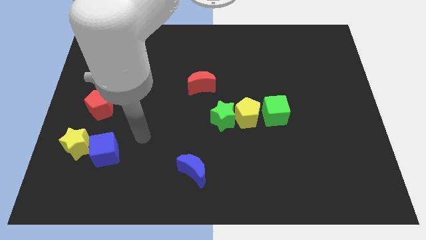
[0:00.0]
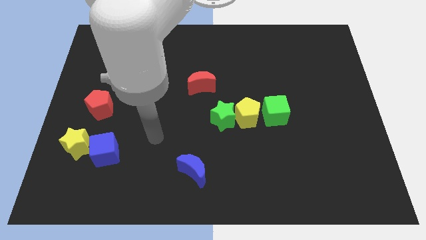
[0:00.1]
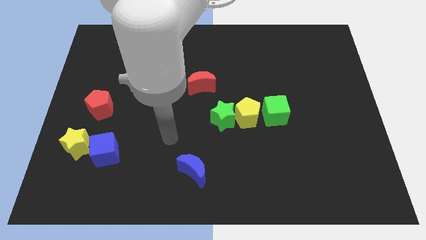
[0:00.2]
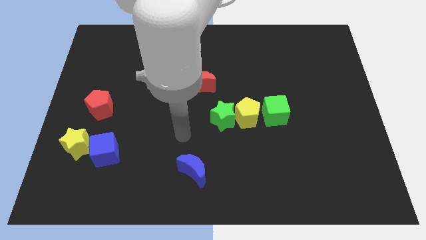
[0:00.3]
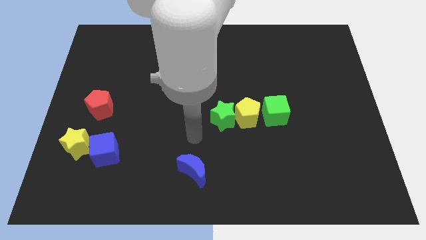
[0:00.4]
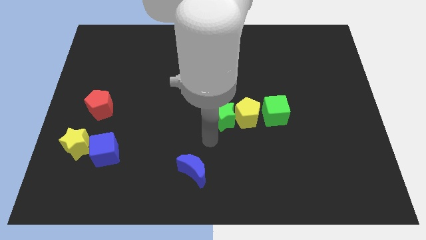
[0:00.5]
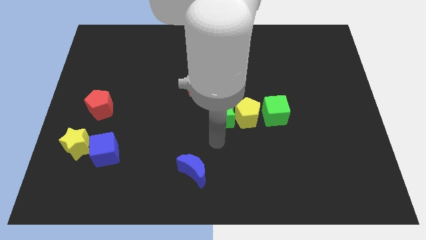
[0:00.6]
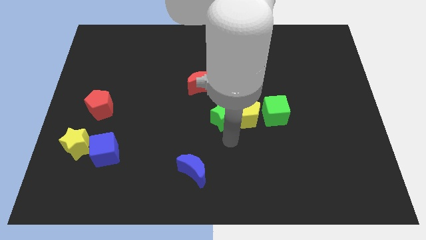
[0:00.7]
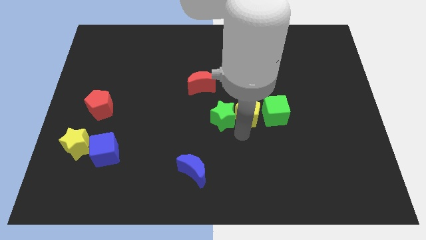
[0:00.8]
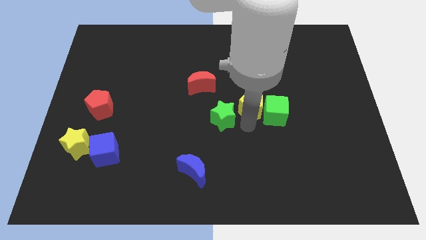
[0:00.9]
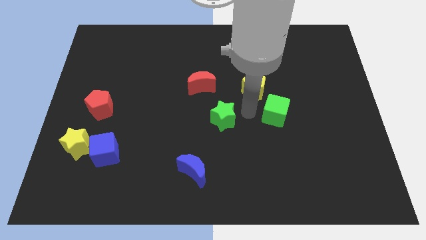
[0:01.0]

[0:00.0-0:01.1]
pull the green star apart from the yellow pentagon

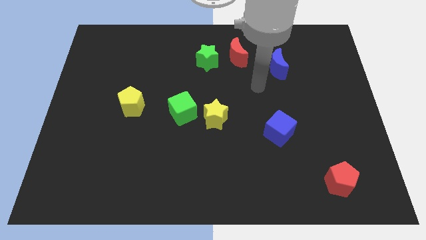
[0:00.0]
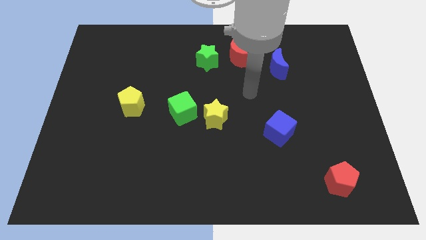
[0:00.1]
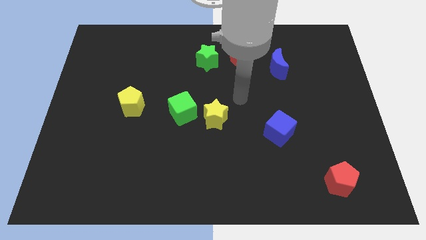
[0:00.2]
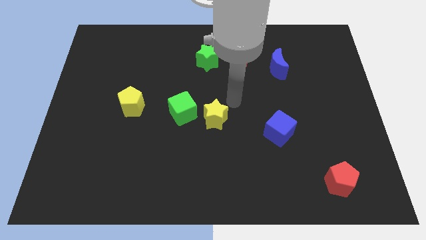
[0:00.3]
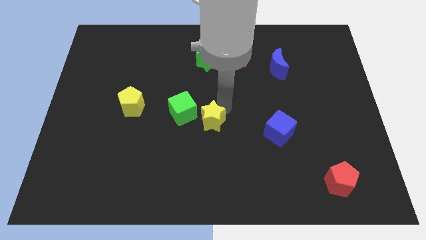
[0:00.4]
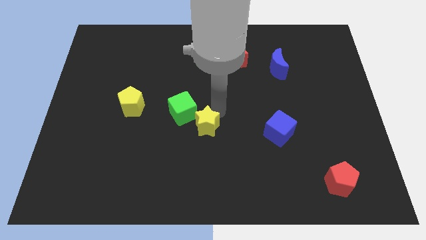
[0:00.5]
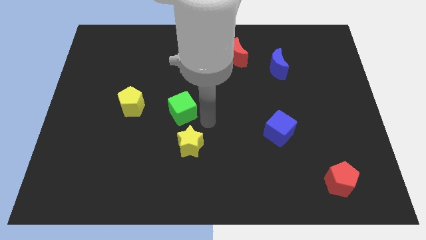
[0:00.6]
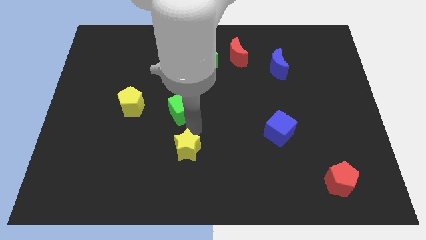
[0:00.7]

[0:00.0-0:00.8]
move the green cube away from the yellow star

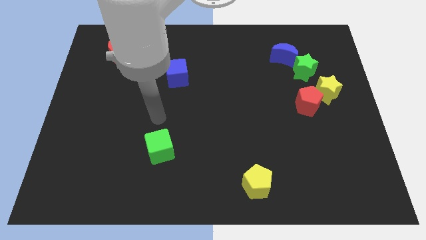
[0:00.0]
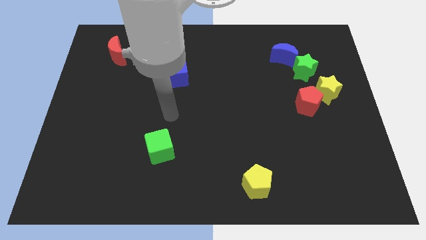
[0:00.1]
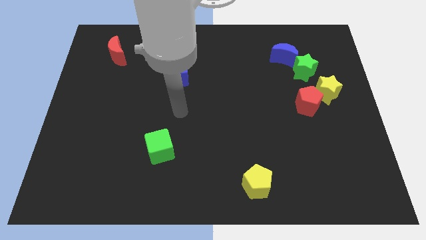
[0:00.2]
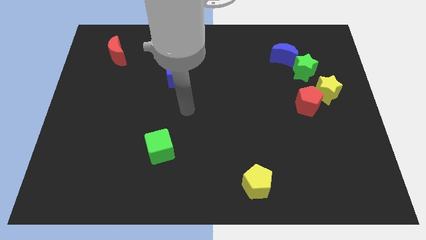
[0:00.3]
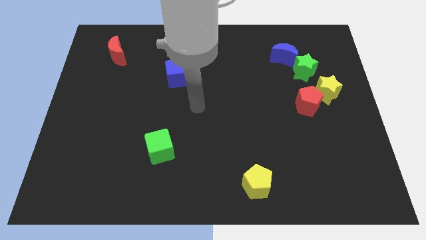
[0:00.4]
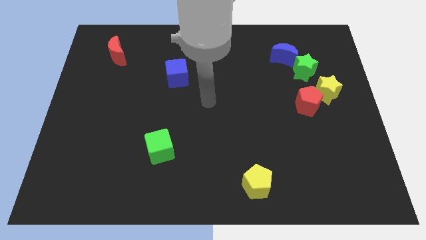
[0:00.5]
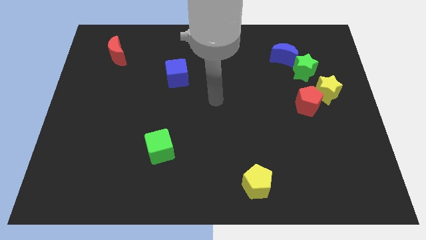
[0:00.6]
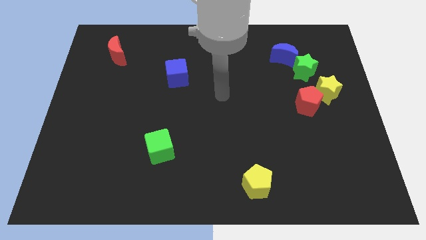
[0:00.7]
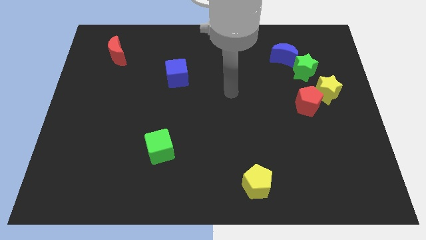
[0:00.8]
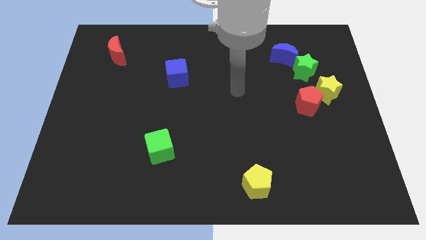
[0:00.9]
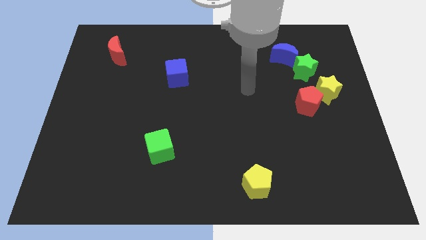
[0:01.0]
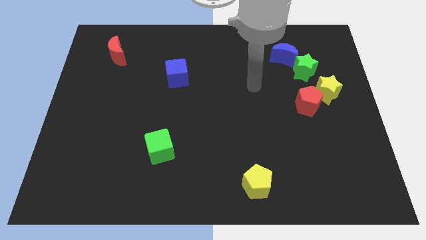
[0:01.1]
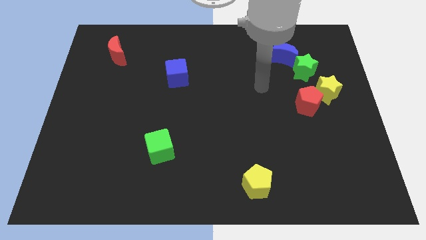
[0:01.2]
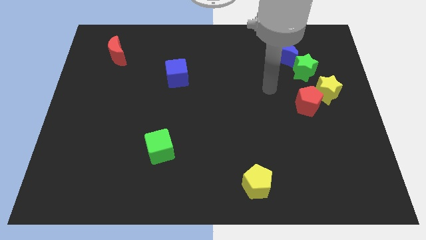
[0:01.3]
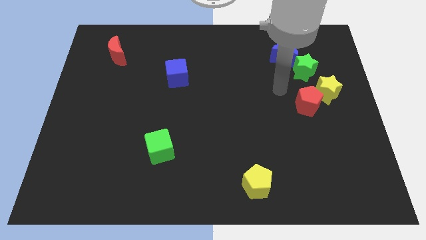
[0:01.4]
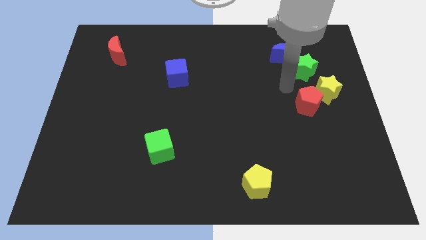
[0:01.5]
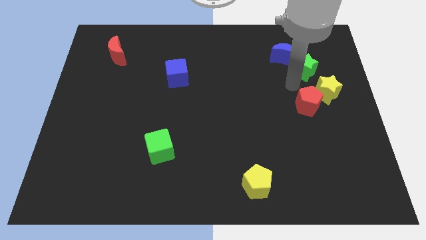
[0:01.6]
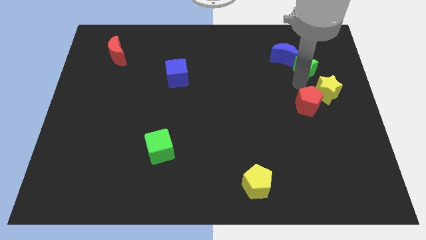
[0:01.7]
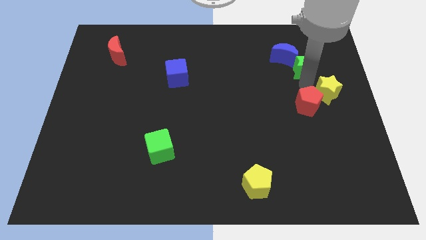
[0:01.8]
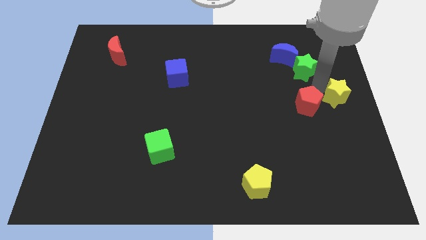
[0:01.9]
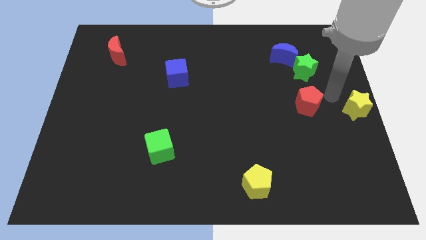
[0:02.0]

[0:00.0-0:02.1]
pull the red pentagon apart from the yellow star

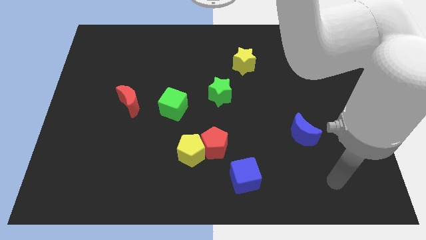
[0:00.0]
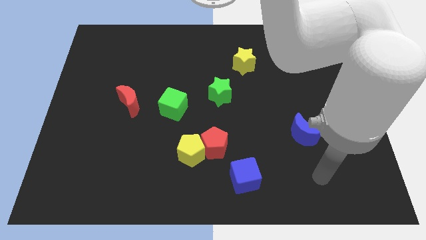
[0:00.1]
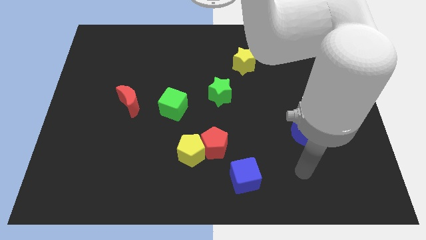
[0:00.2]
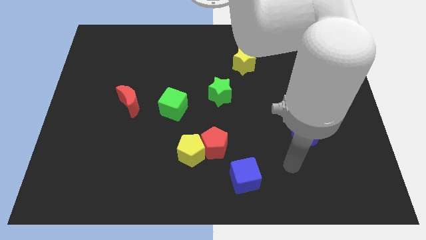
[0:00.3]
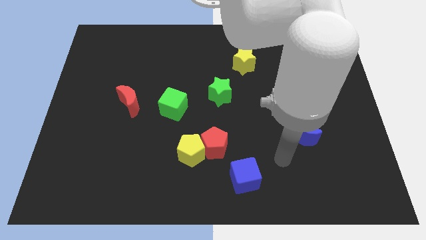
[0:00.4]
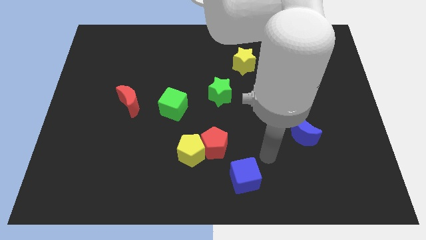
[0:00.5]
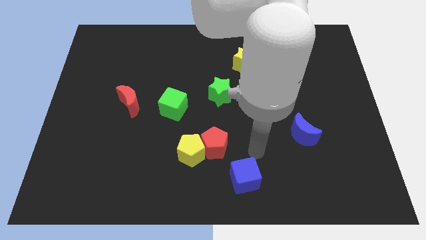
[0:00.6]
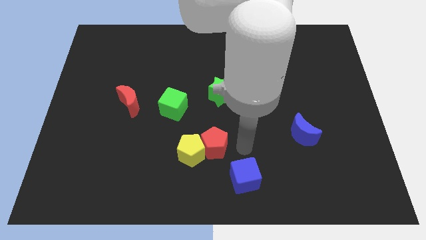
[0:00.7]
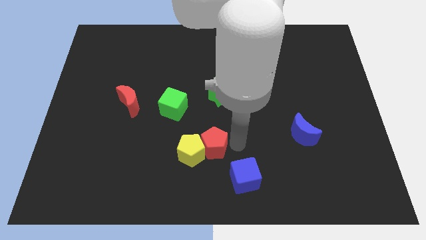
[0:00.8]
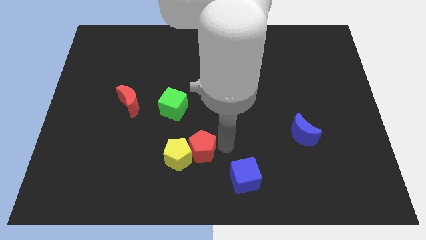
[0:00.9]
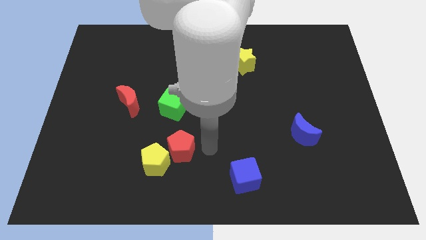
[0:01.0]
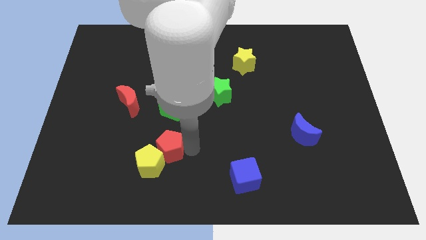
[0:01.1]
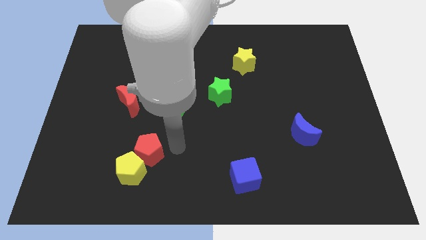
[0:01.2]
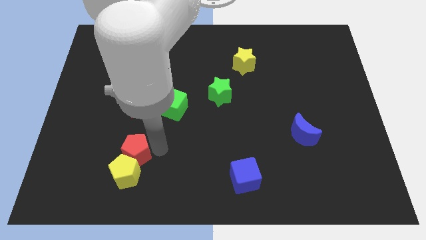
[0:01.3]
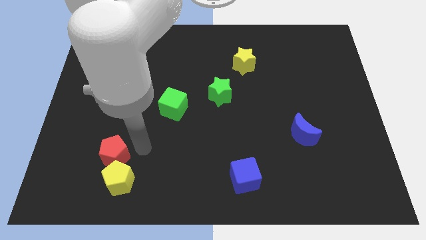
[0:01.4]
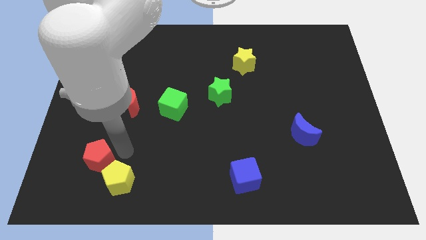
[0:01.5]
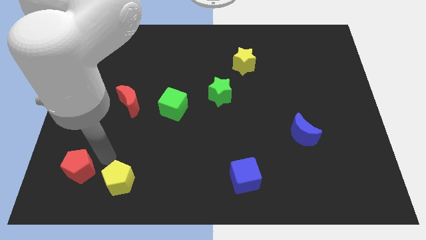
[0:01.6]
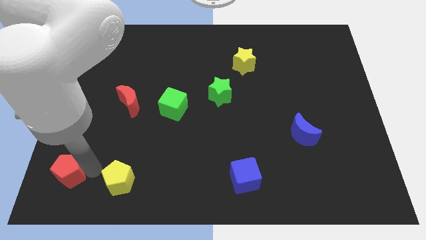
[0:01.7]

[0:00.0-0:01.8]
pull the yellow pentagon apart from the red pentagon

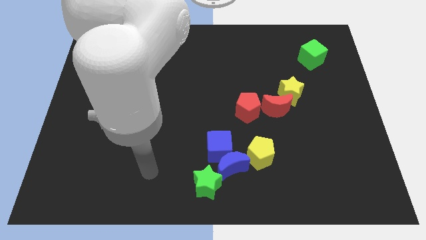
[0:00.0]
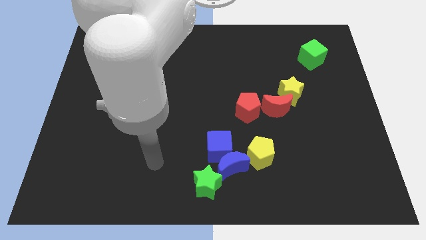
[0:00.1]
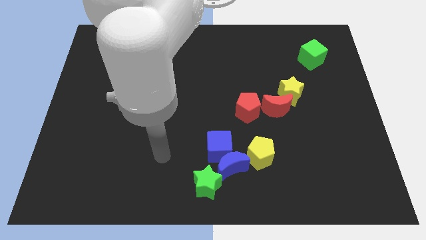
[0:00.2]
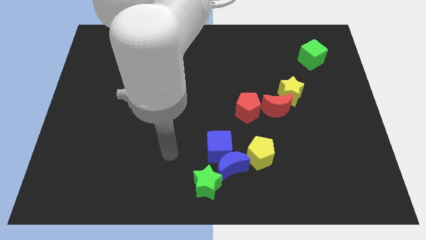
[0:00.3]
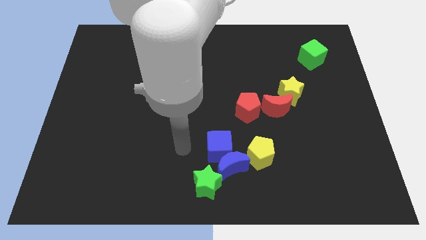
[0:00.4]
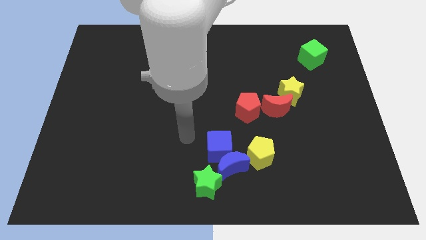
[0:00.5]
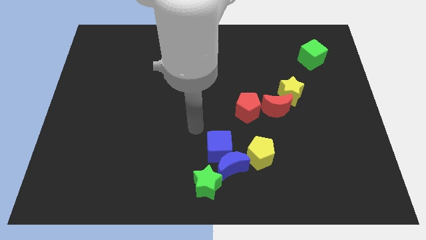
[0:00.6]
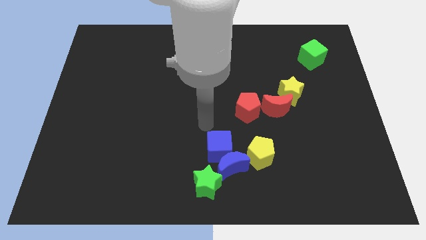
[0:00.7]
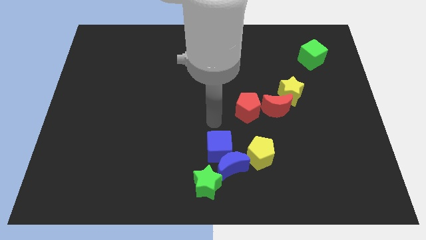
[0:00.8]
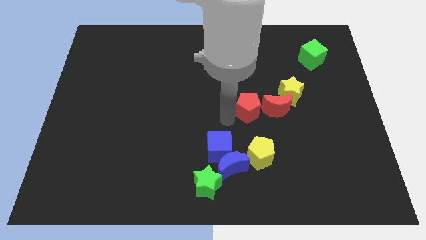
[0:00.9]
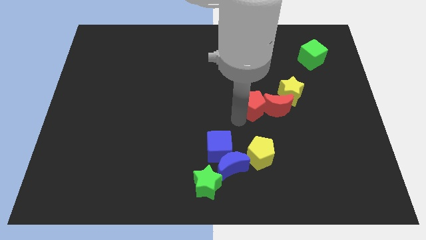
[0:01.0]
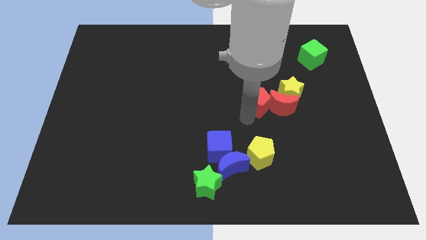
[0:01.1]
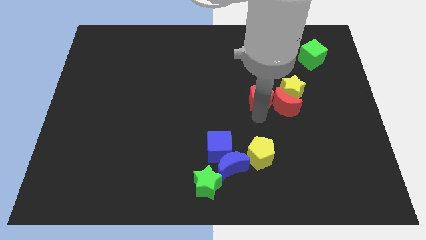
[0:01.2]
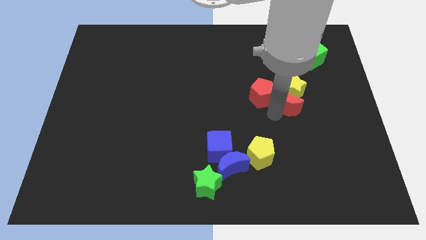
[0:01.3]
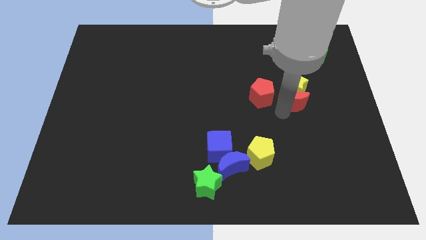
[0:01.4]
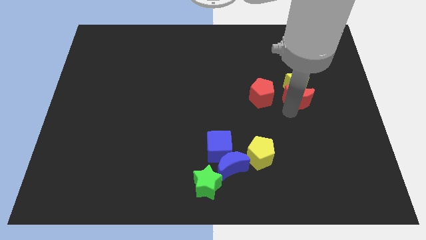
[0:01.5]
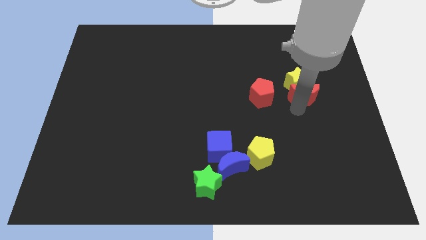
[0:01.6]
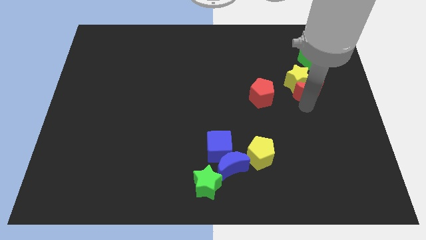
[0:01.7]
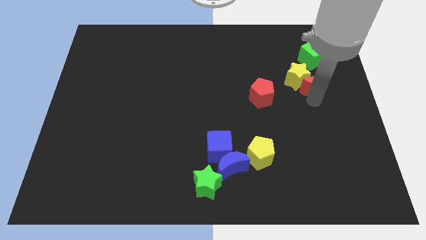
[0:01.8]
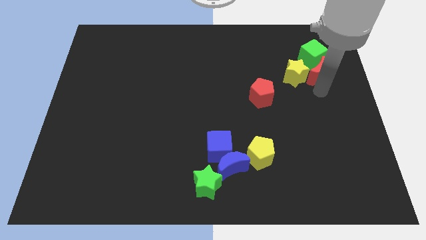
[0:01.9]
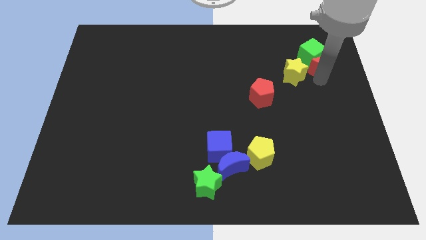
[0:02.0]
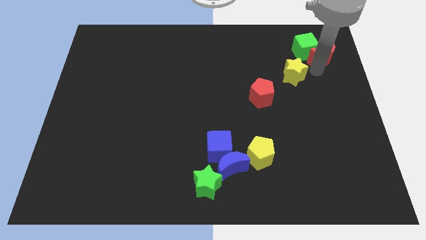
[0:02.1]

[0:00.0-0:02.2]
pull the yellow star apart from the red moon

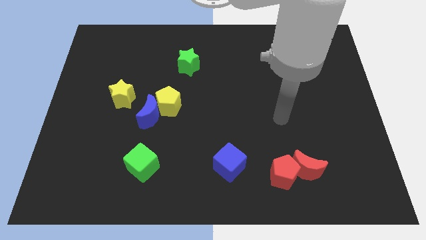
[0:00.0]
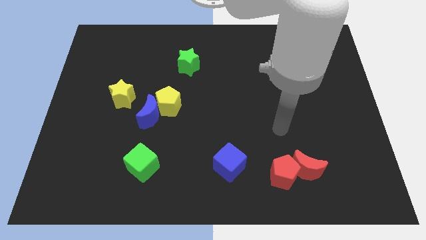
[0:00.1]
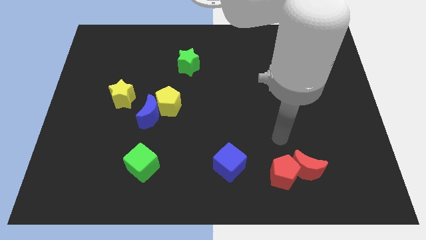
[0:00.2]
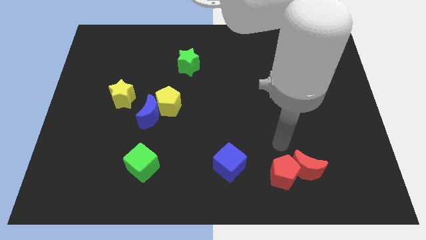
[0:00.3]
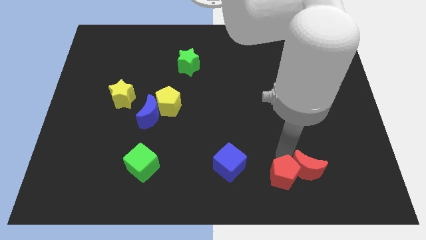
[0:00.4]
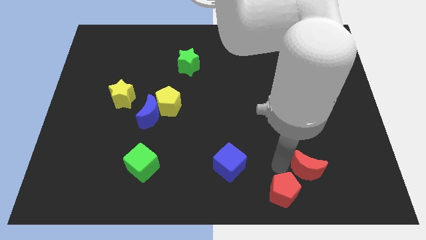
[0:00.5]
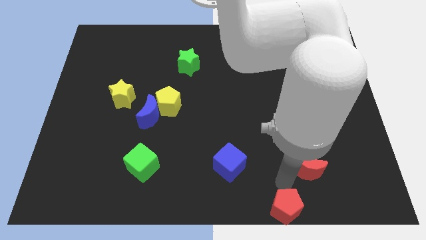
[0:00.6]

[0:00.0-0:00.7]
move the red moon away from the red pentagon

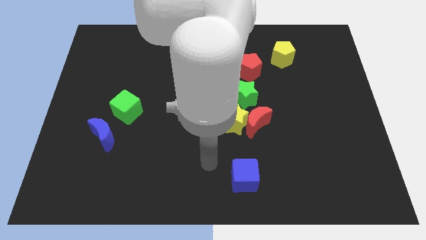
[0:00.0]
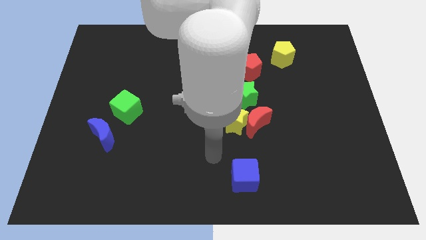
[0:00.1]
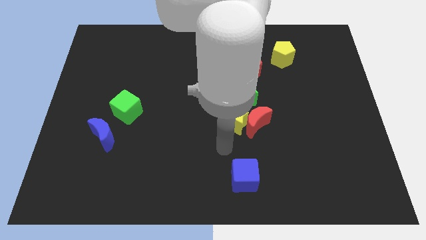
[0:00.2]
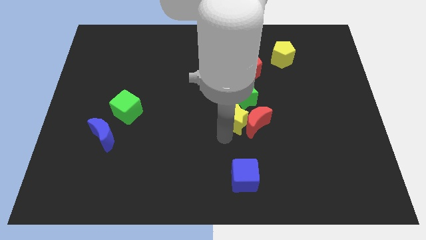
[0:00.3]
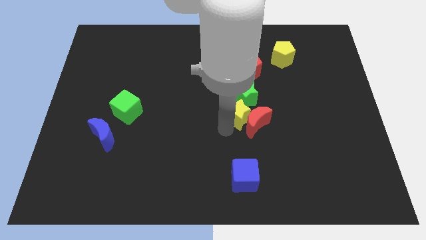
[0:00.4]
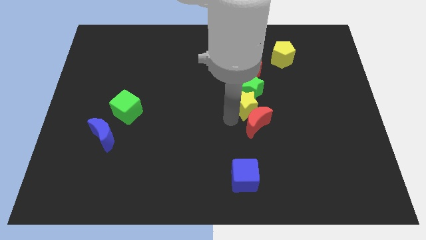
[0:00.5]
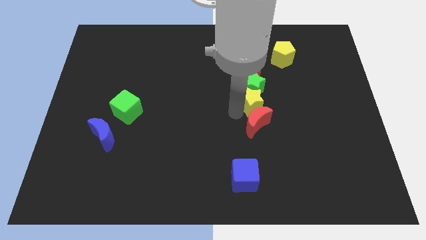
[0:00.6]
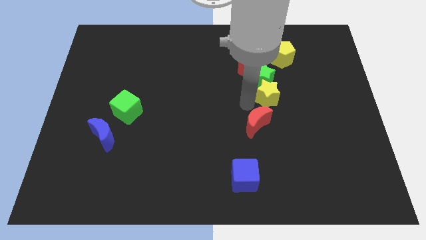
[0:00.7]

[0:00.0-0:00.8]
separate the red moon from the yellow star and green star
